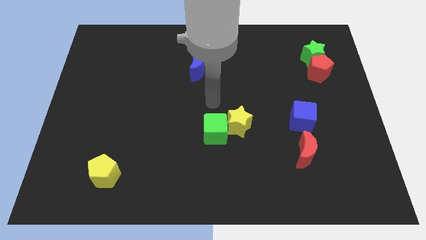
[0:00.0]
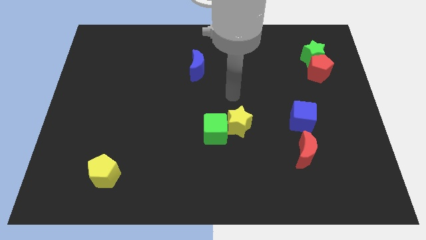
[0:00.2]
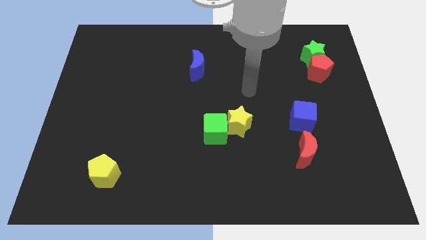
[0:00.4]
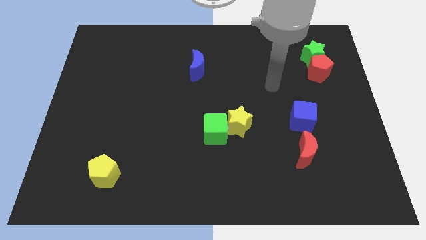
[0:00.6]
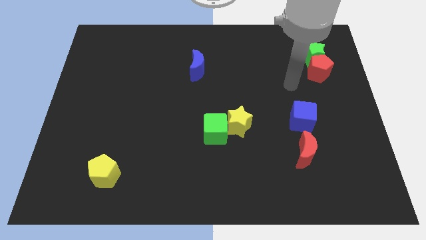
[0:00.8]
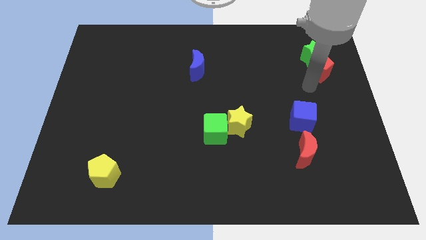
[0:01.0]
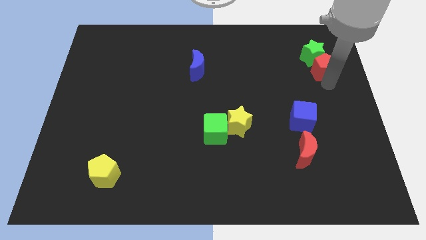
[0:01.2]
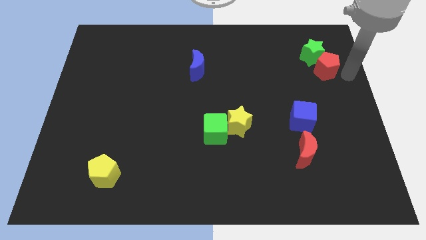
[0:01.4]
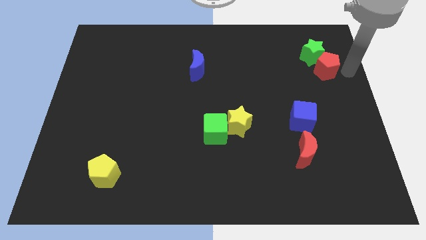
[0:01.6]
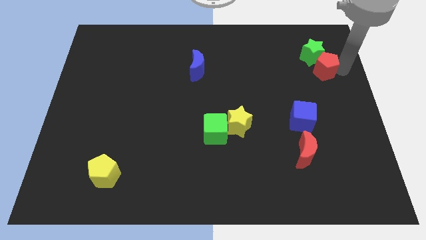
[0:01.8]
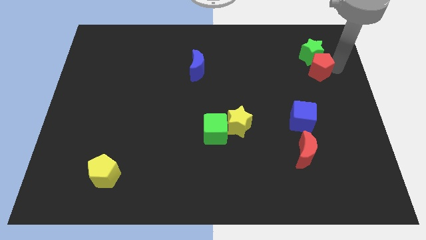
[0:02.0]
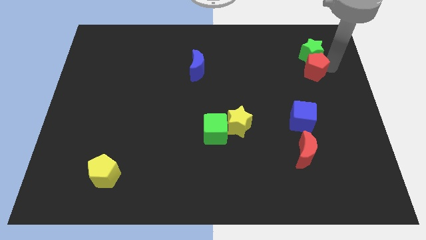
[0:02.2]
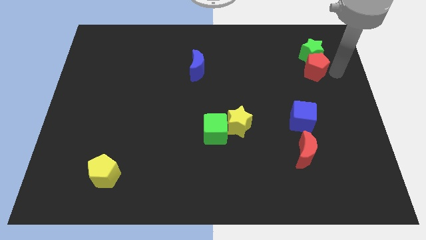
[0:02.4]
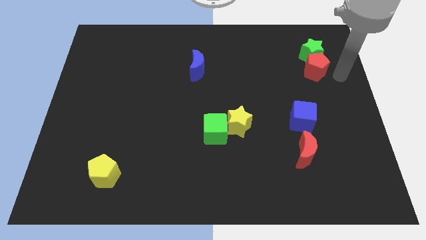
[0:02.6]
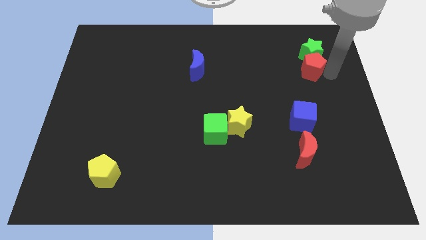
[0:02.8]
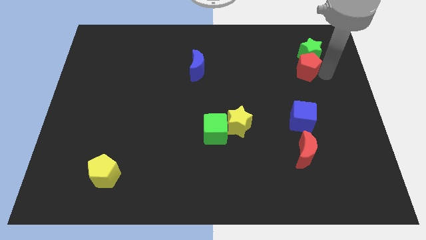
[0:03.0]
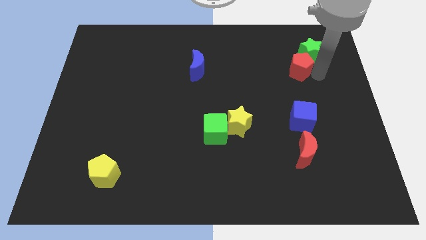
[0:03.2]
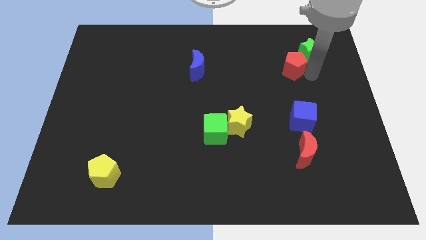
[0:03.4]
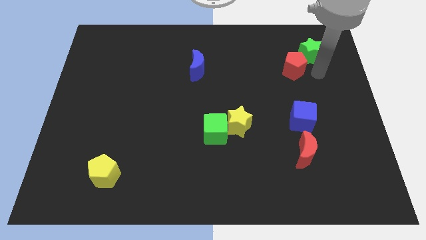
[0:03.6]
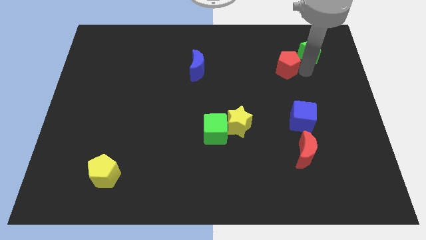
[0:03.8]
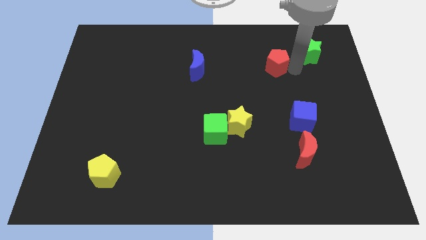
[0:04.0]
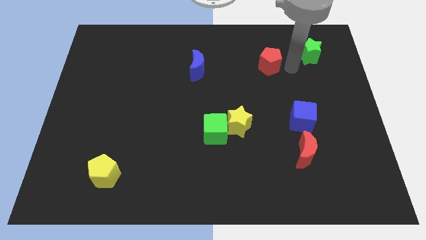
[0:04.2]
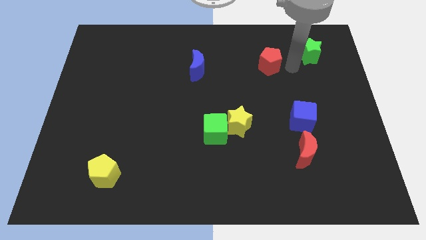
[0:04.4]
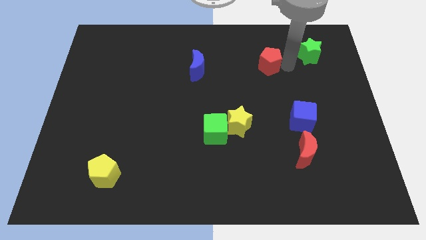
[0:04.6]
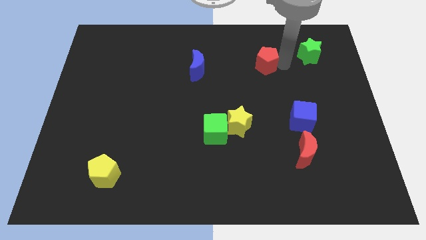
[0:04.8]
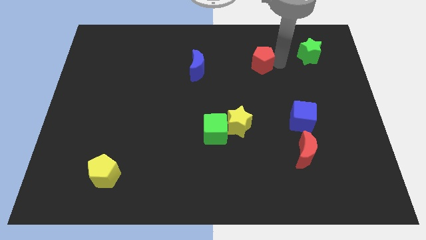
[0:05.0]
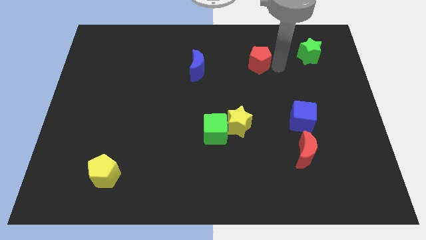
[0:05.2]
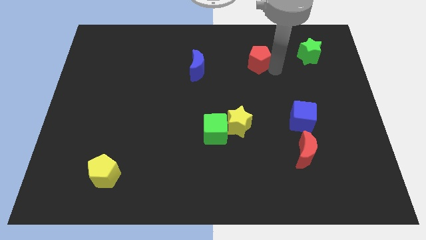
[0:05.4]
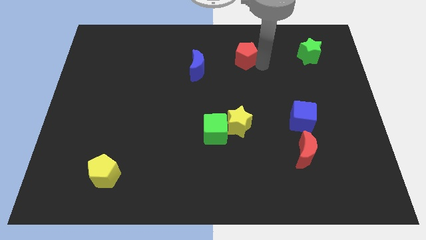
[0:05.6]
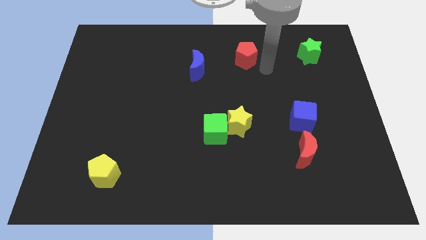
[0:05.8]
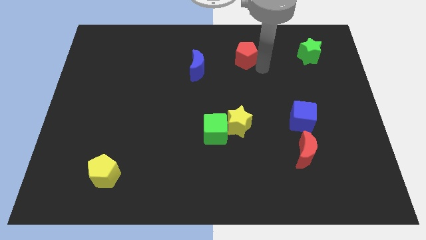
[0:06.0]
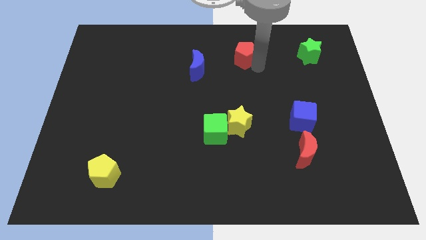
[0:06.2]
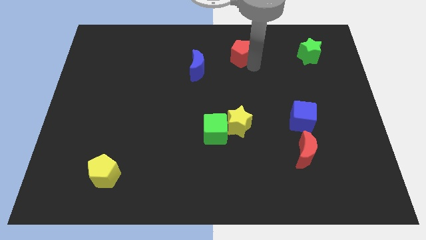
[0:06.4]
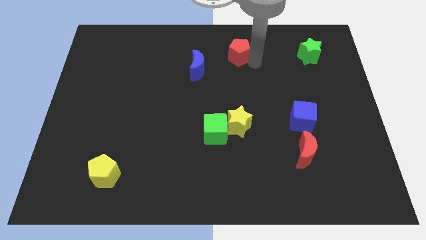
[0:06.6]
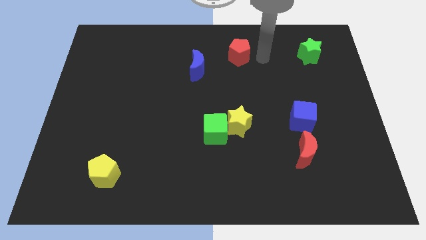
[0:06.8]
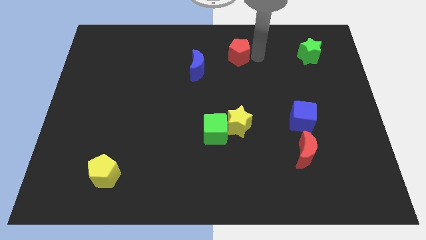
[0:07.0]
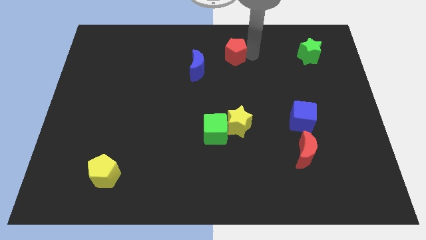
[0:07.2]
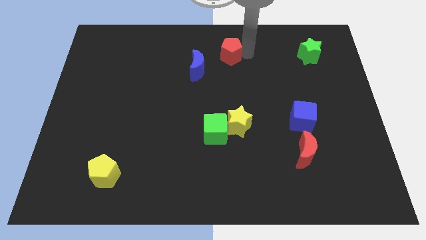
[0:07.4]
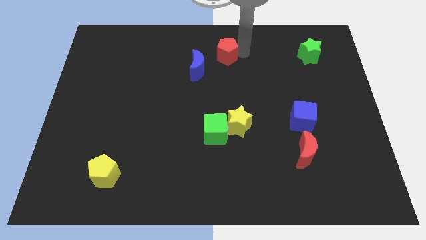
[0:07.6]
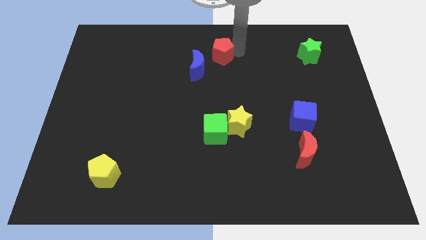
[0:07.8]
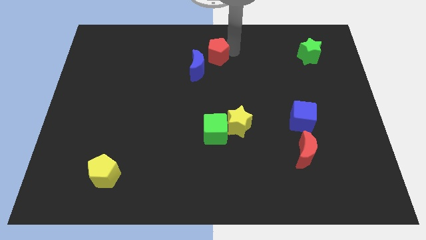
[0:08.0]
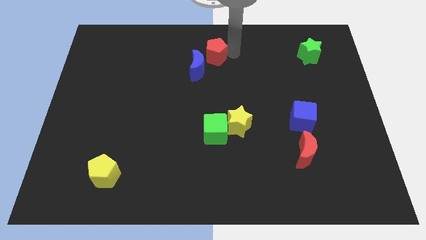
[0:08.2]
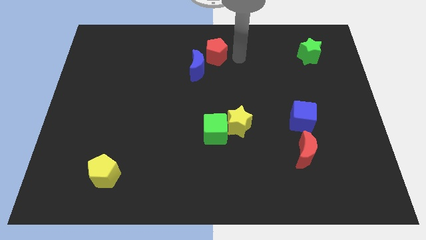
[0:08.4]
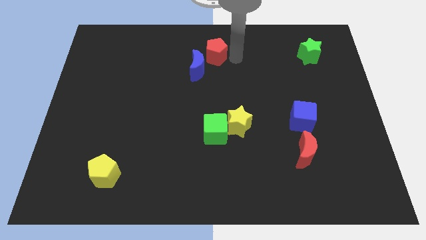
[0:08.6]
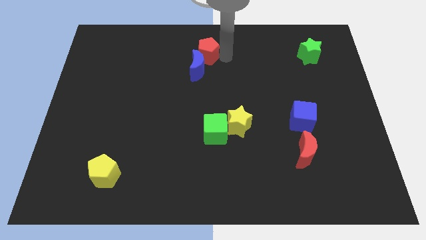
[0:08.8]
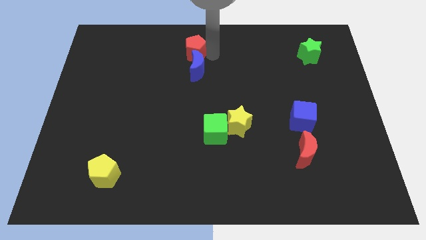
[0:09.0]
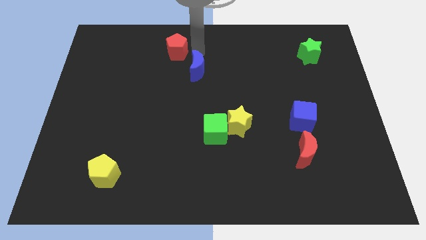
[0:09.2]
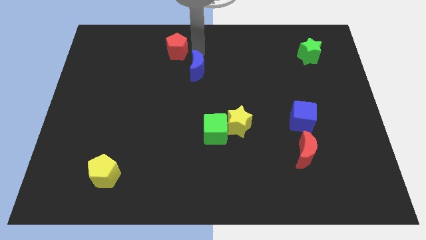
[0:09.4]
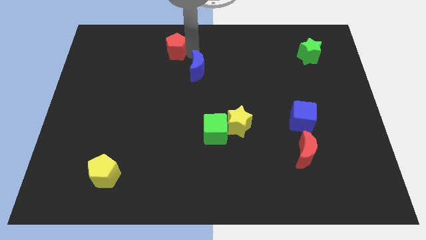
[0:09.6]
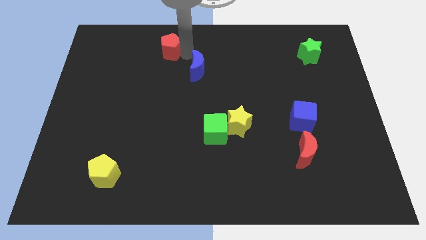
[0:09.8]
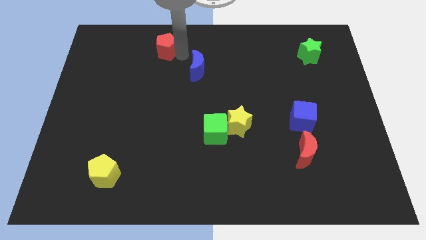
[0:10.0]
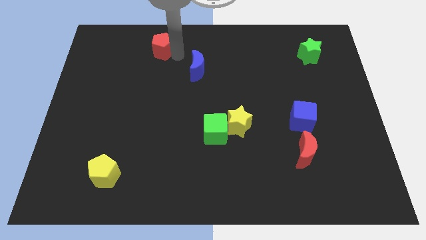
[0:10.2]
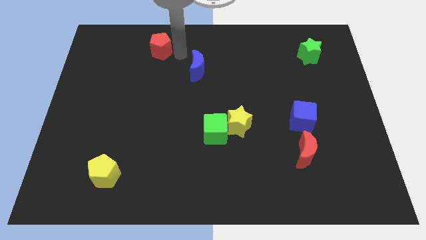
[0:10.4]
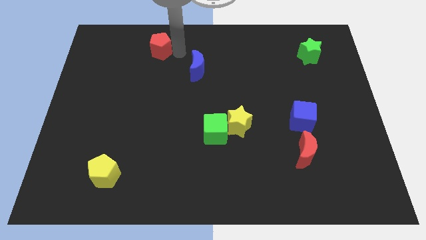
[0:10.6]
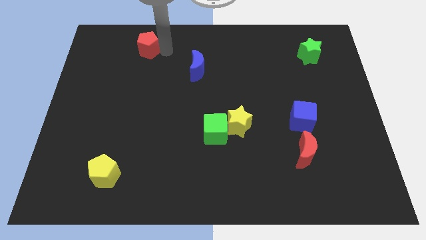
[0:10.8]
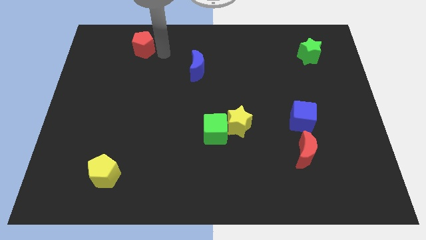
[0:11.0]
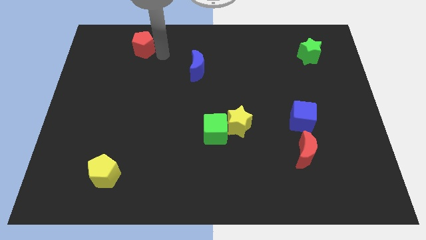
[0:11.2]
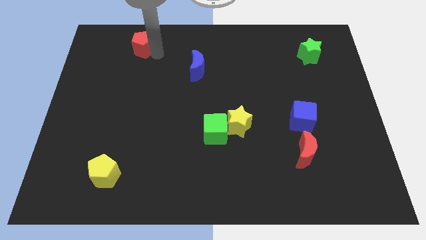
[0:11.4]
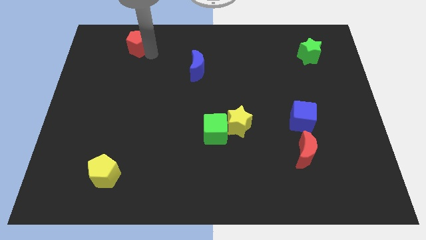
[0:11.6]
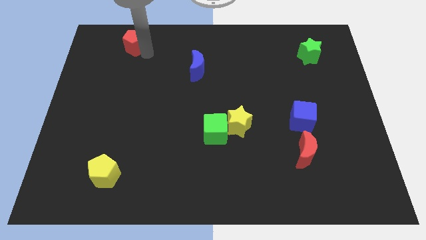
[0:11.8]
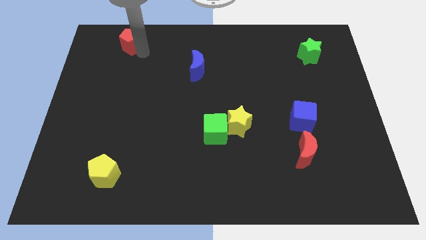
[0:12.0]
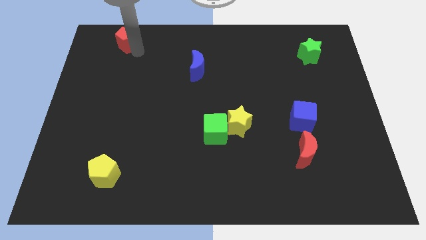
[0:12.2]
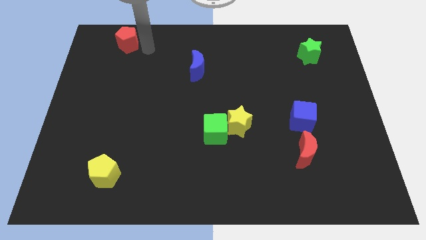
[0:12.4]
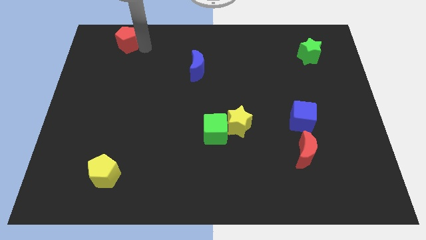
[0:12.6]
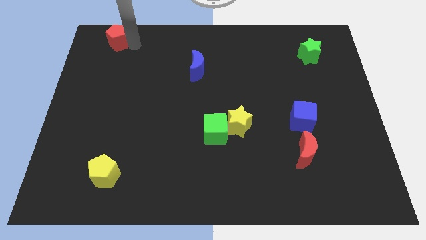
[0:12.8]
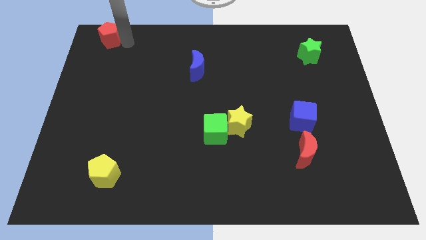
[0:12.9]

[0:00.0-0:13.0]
move the red pentagon to the upper left corner
